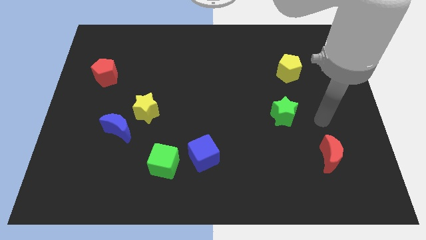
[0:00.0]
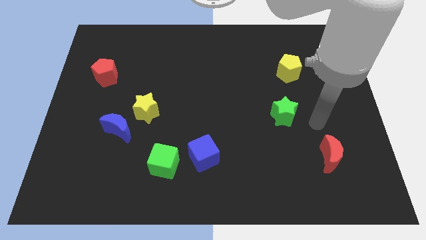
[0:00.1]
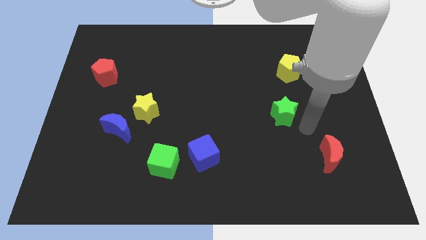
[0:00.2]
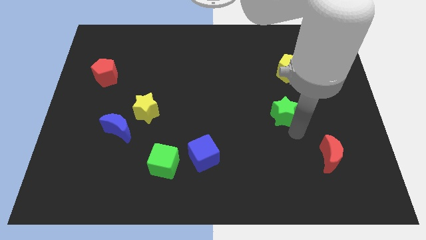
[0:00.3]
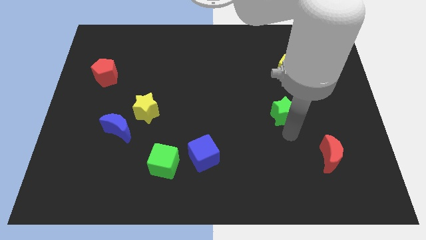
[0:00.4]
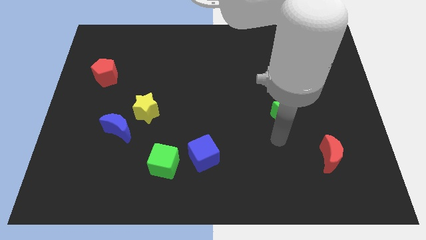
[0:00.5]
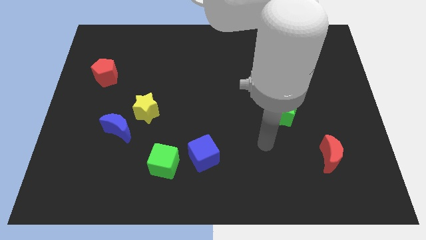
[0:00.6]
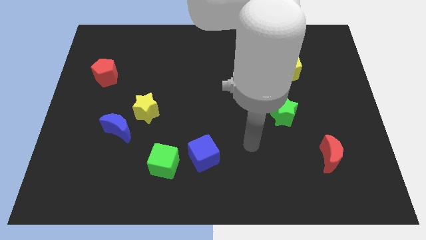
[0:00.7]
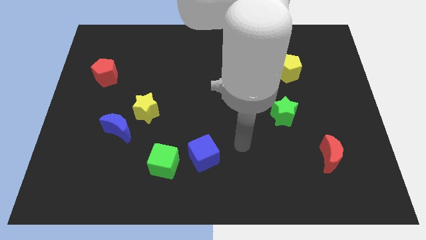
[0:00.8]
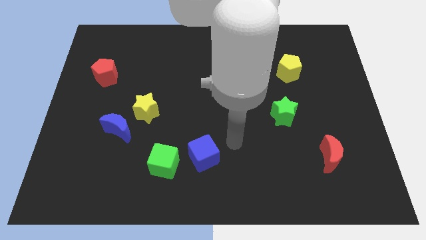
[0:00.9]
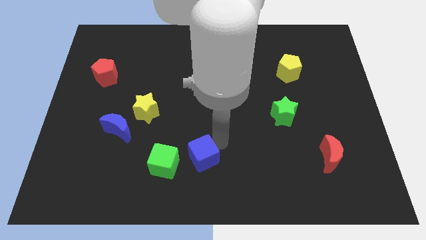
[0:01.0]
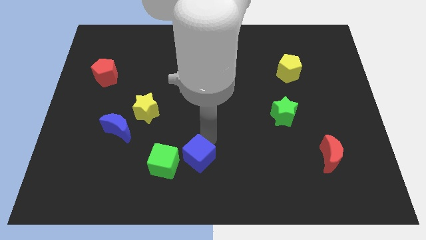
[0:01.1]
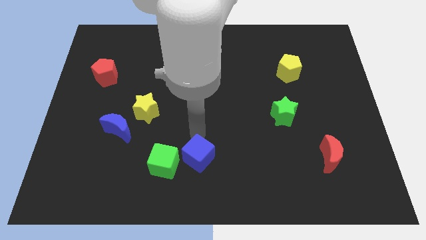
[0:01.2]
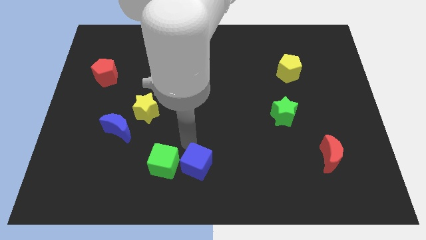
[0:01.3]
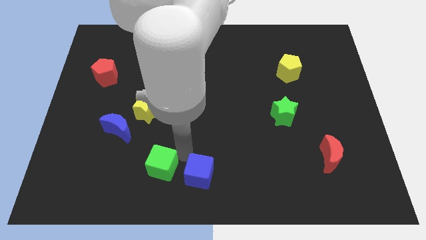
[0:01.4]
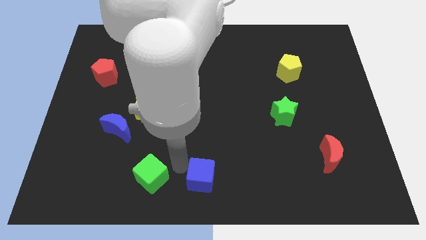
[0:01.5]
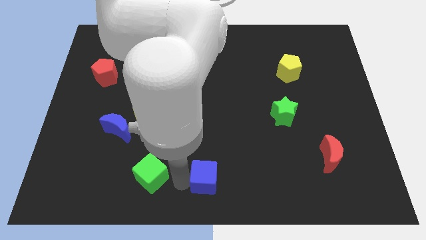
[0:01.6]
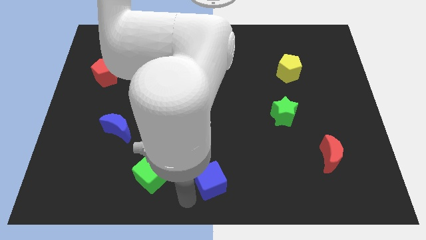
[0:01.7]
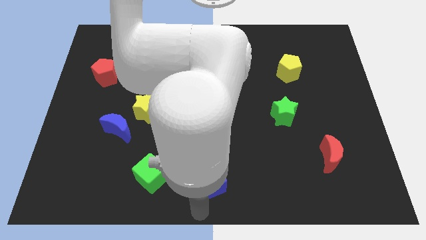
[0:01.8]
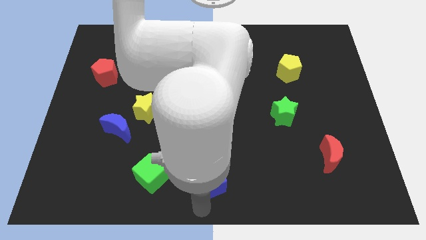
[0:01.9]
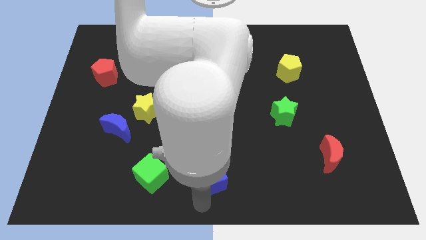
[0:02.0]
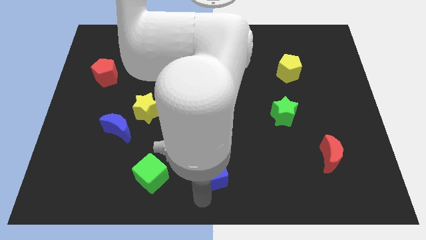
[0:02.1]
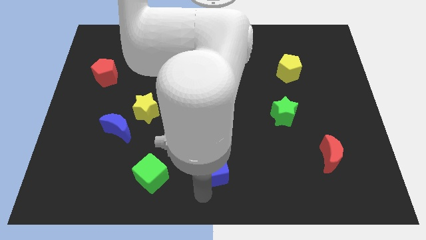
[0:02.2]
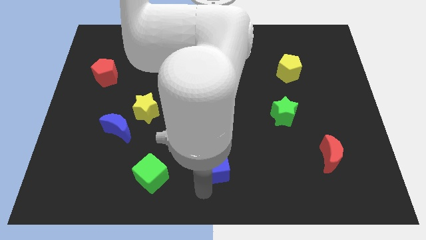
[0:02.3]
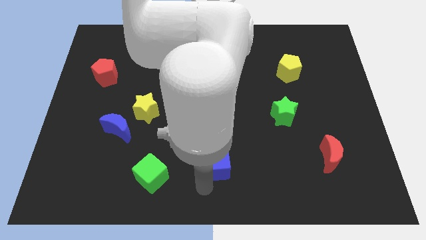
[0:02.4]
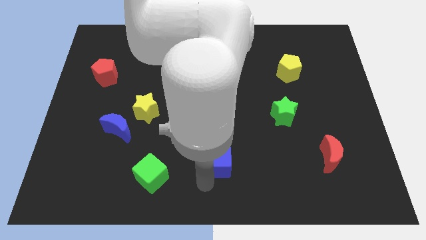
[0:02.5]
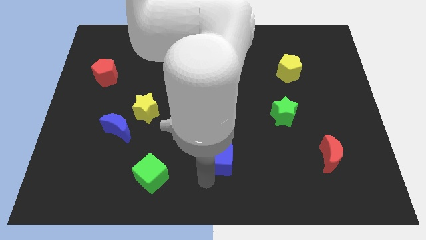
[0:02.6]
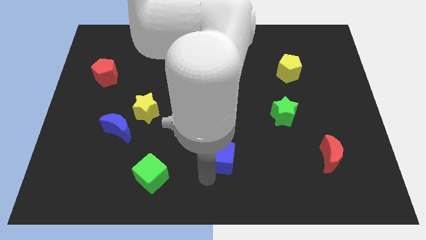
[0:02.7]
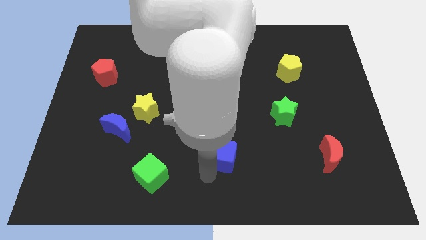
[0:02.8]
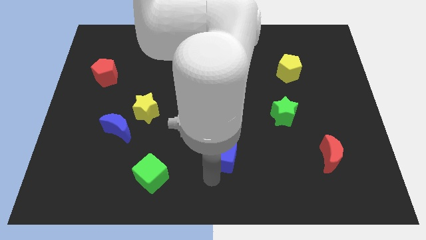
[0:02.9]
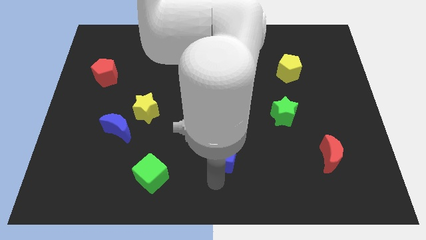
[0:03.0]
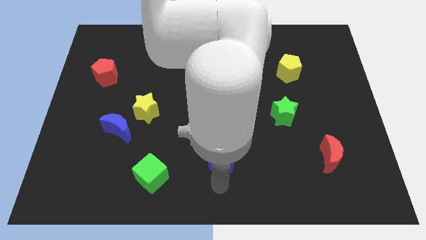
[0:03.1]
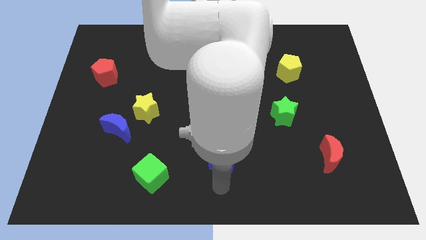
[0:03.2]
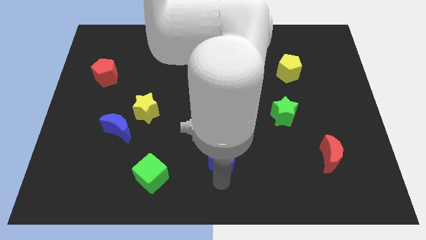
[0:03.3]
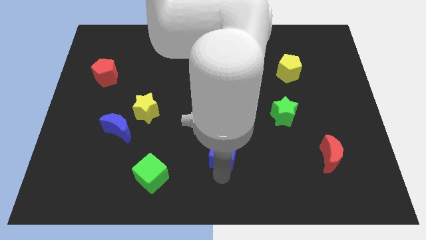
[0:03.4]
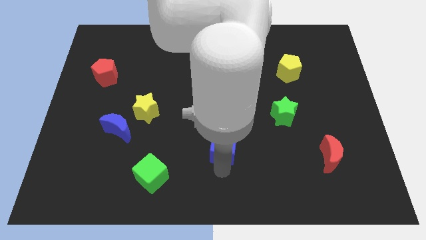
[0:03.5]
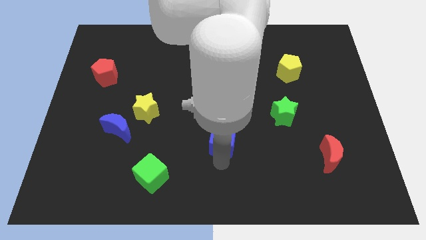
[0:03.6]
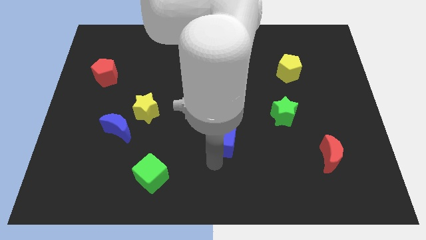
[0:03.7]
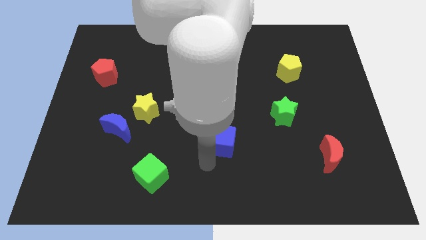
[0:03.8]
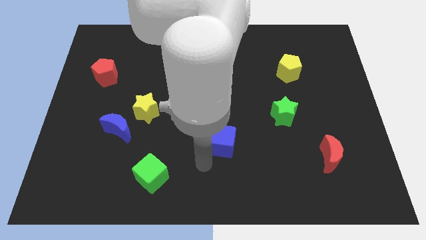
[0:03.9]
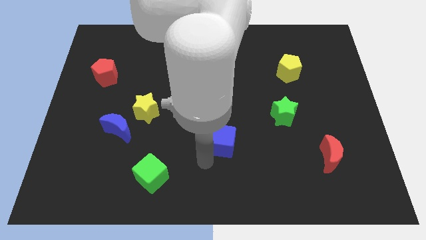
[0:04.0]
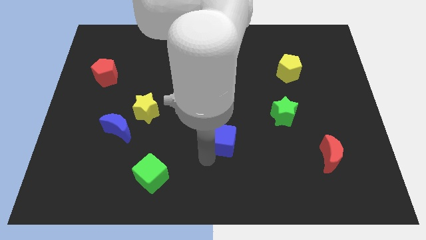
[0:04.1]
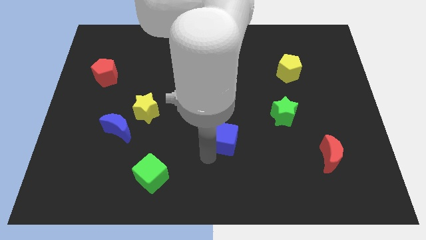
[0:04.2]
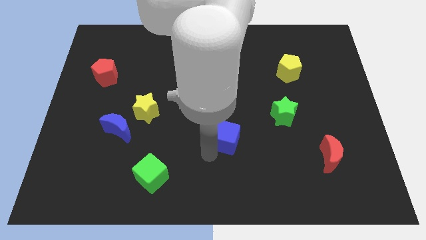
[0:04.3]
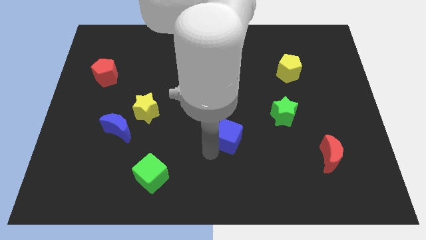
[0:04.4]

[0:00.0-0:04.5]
move the blue cube a bit upwards and right diagonally

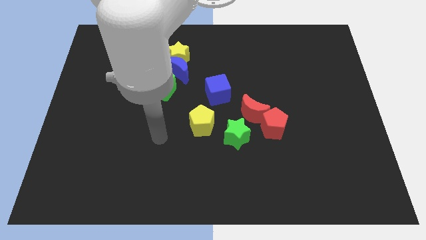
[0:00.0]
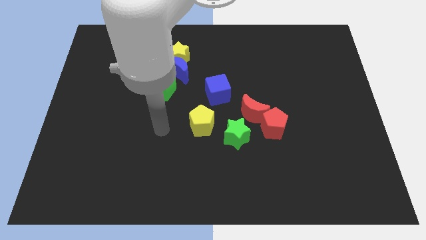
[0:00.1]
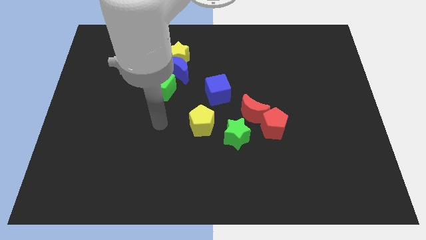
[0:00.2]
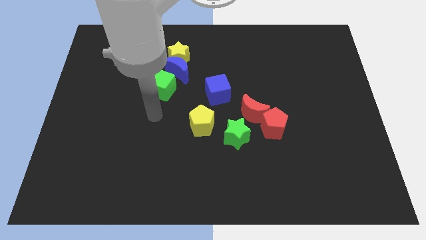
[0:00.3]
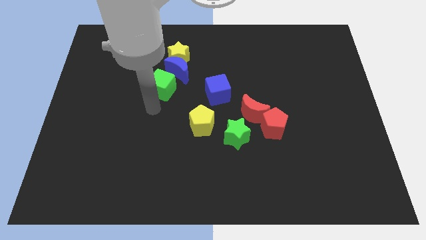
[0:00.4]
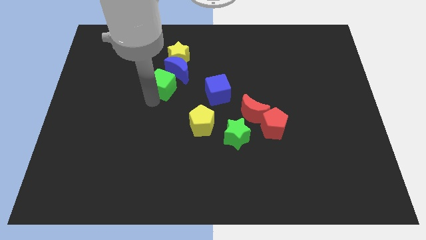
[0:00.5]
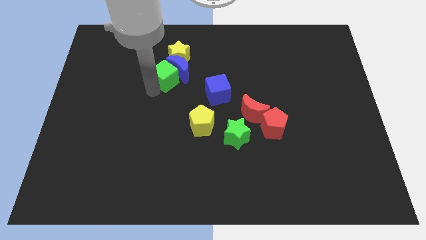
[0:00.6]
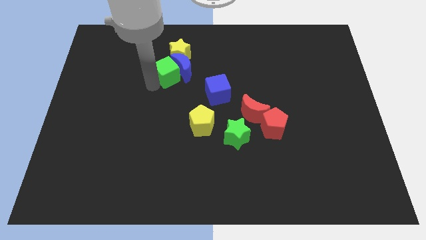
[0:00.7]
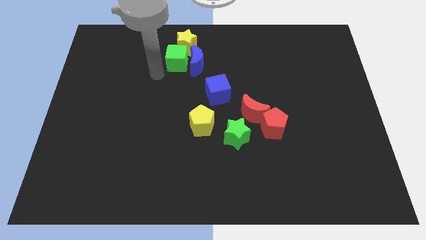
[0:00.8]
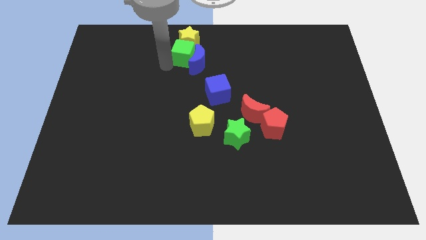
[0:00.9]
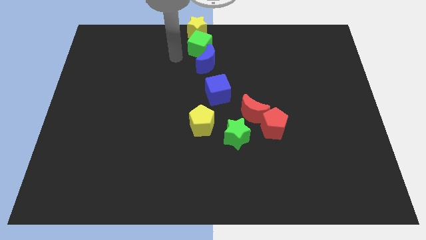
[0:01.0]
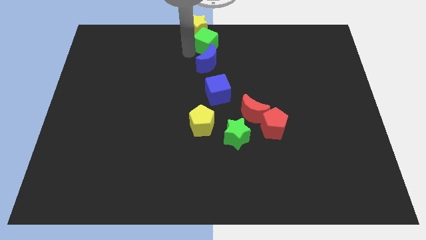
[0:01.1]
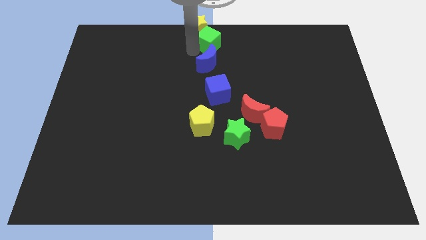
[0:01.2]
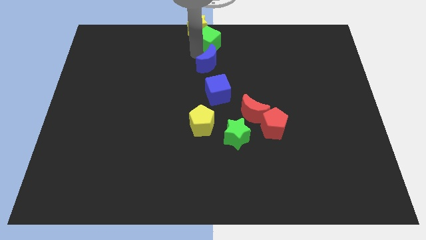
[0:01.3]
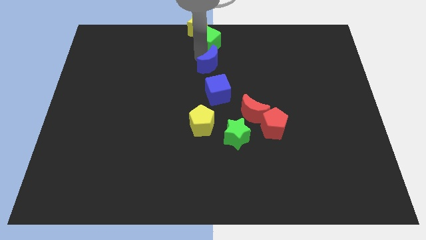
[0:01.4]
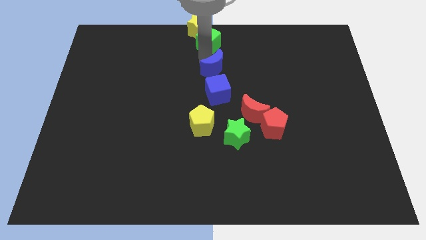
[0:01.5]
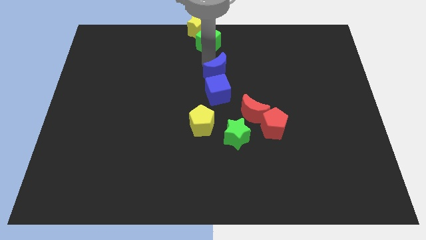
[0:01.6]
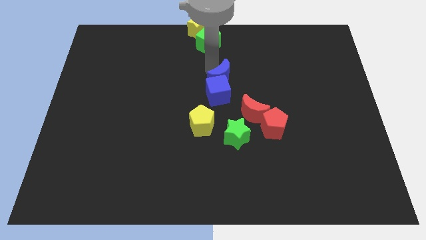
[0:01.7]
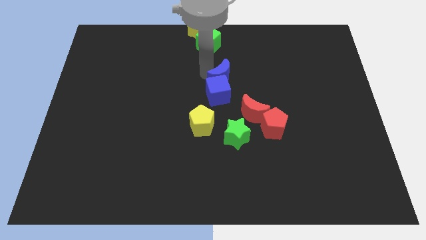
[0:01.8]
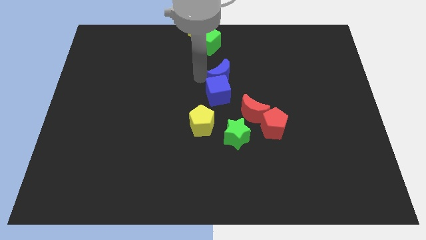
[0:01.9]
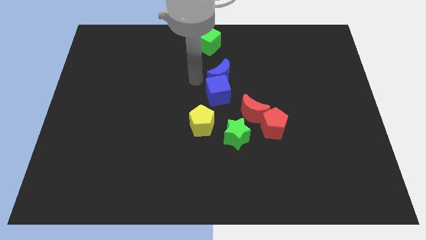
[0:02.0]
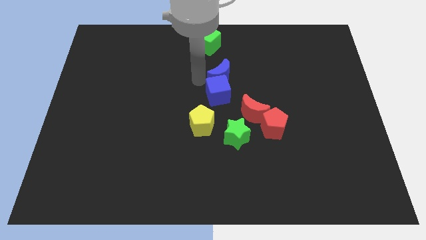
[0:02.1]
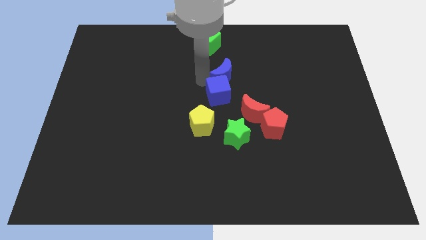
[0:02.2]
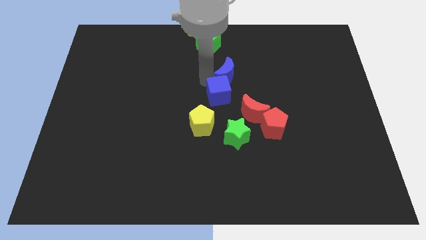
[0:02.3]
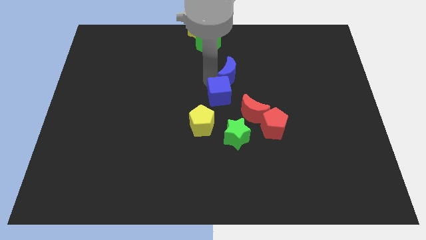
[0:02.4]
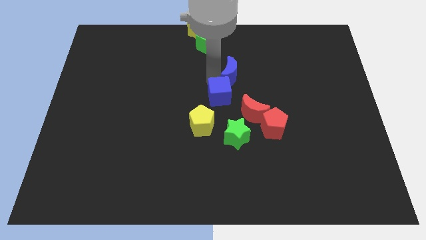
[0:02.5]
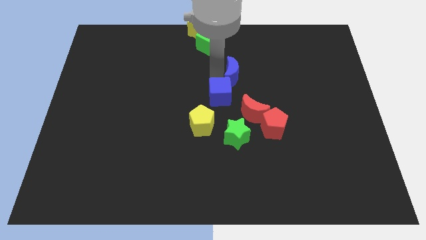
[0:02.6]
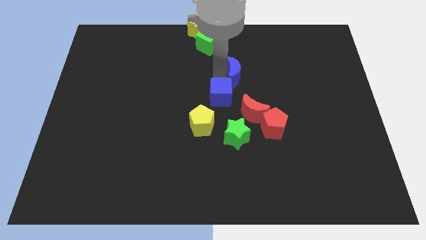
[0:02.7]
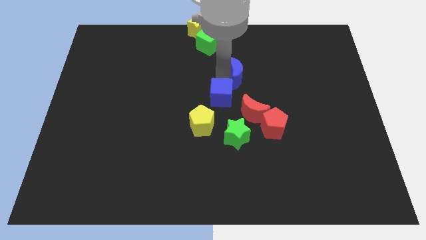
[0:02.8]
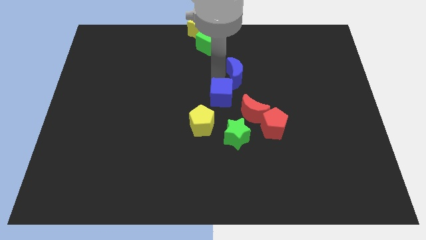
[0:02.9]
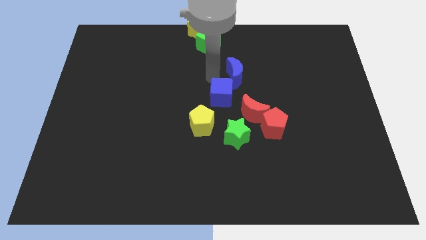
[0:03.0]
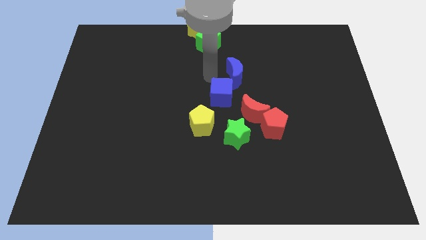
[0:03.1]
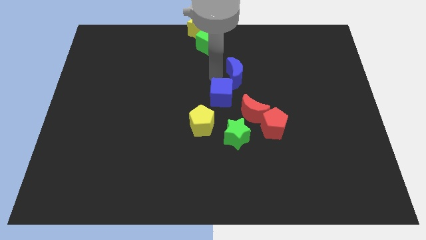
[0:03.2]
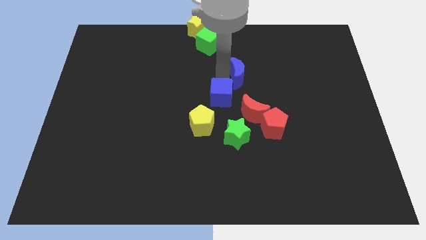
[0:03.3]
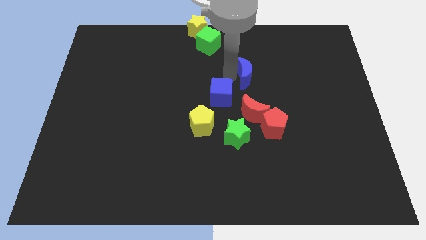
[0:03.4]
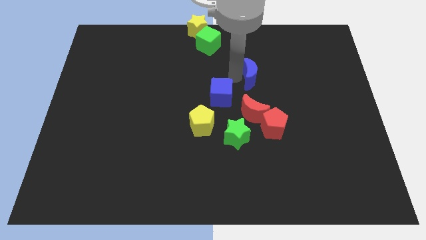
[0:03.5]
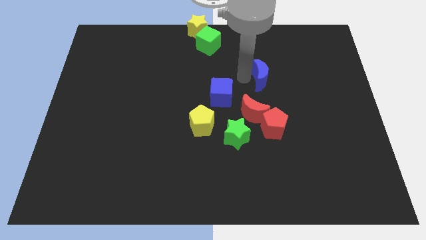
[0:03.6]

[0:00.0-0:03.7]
slide the blue moon right
